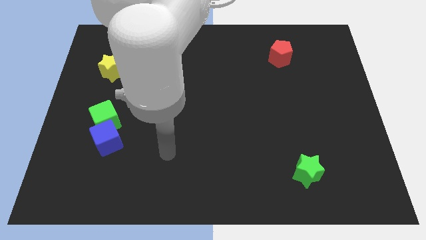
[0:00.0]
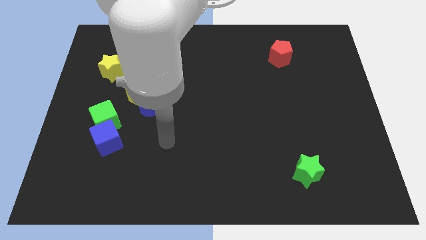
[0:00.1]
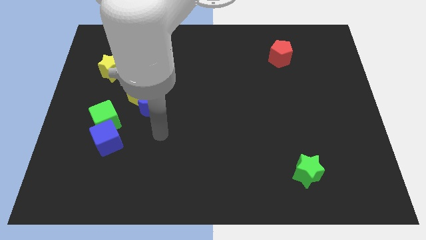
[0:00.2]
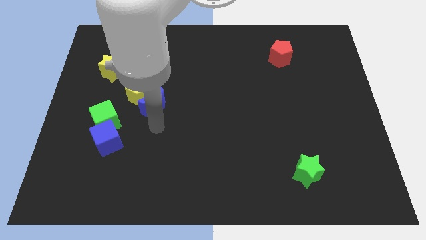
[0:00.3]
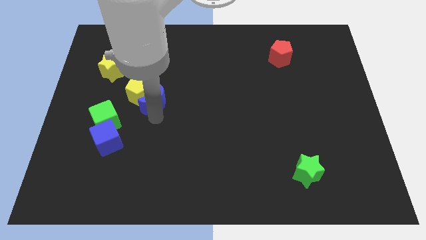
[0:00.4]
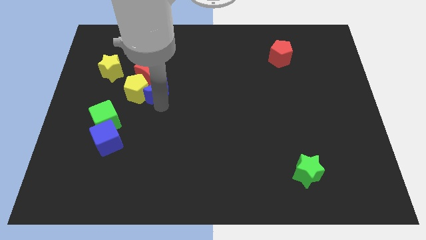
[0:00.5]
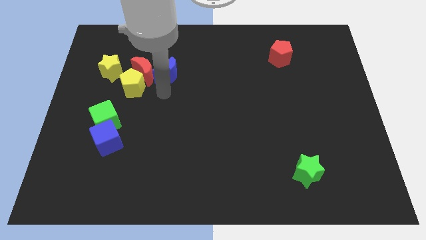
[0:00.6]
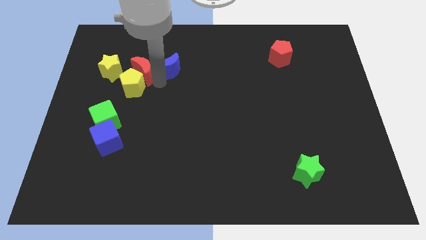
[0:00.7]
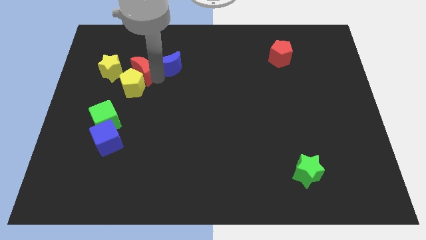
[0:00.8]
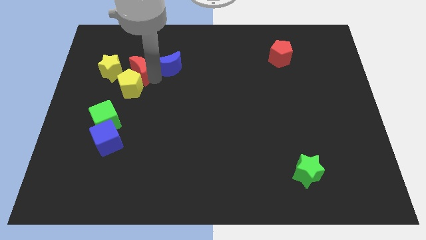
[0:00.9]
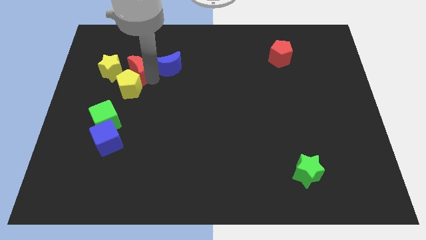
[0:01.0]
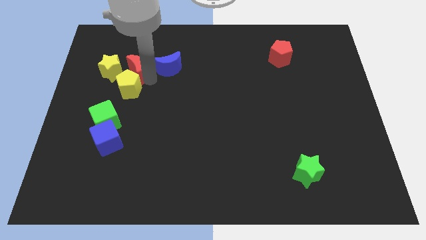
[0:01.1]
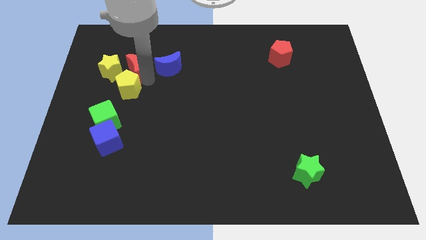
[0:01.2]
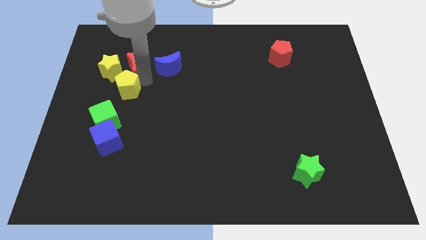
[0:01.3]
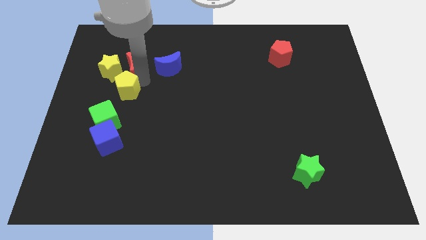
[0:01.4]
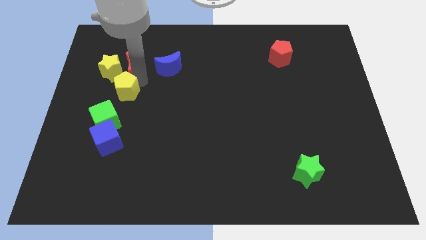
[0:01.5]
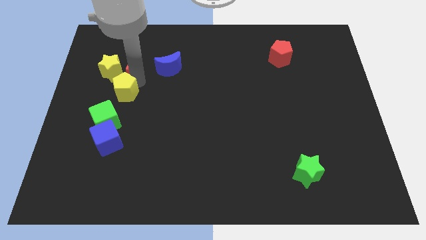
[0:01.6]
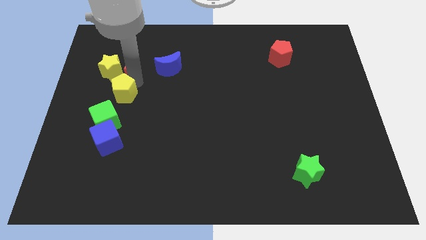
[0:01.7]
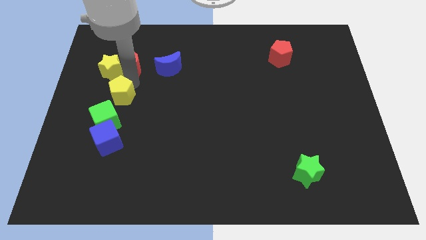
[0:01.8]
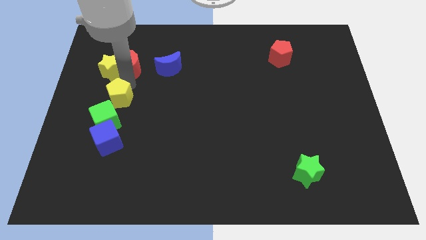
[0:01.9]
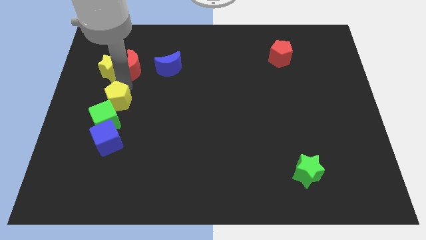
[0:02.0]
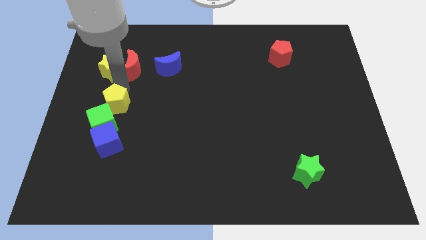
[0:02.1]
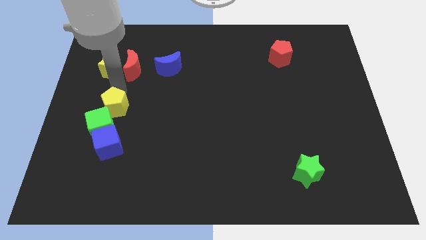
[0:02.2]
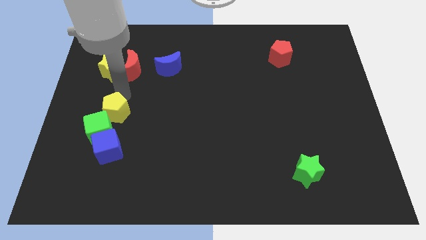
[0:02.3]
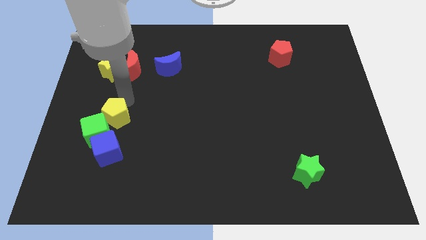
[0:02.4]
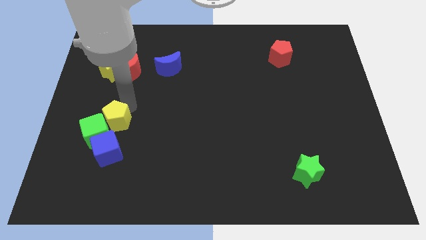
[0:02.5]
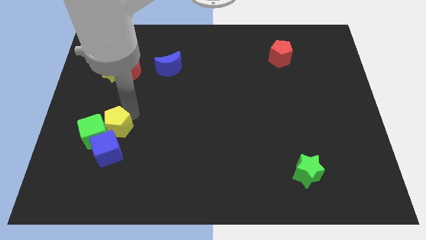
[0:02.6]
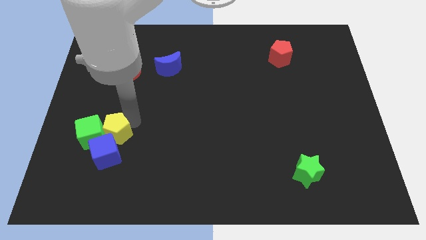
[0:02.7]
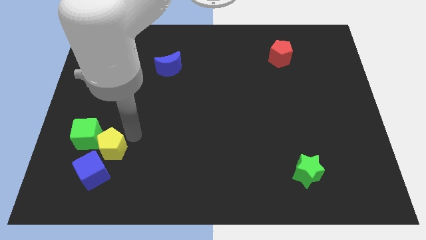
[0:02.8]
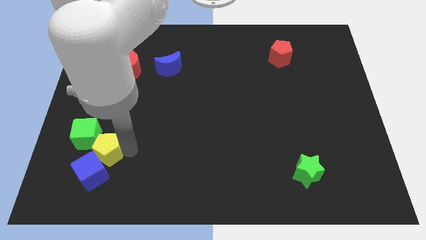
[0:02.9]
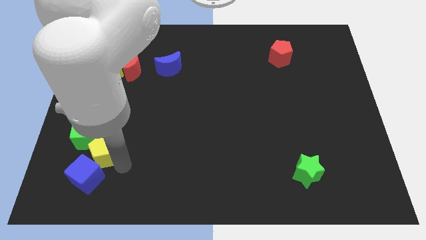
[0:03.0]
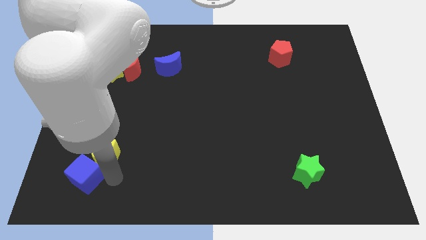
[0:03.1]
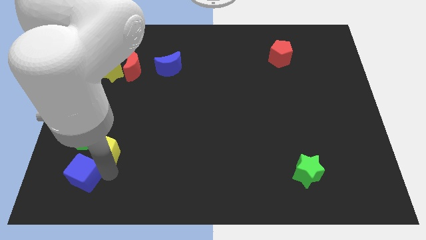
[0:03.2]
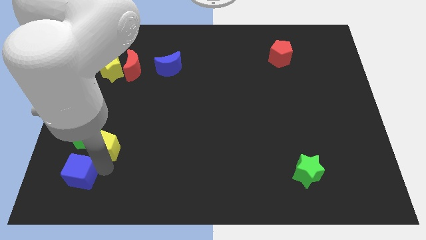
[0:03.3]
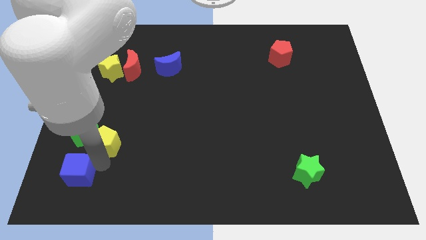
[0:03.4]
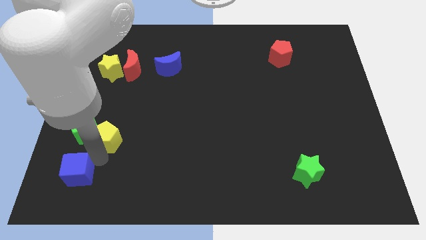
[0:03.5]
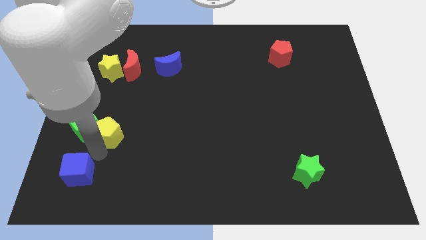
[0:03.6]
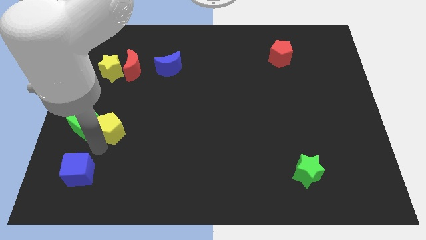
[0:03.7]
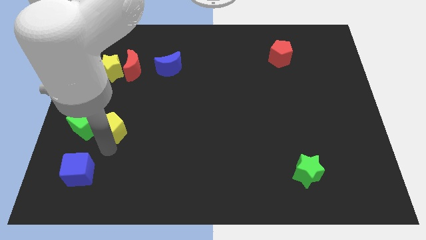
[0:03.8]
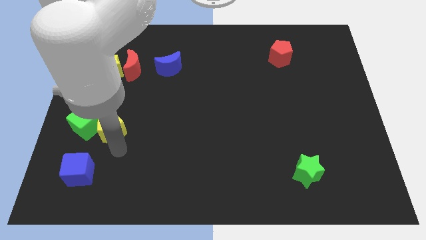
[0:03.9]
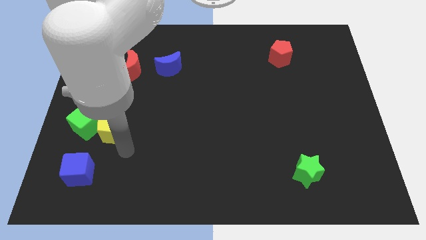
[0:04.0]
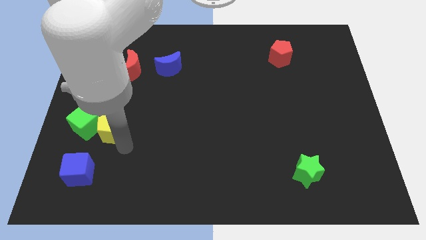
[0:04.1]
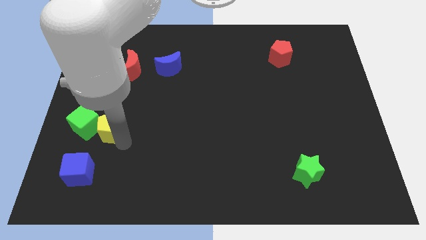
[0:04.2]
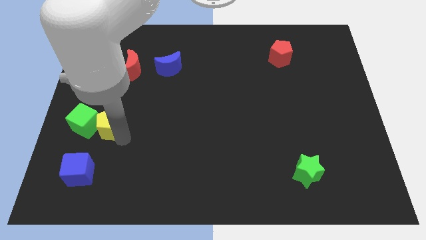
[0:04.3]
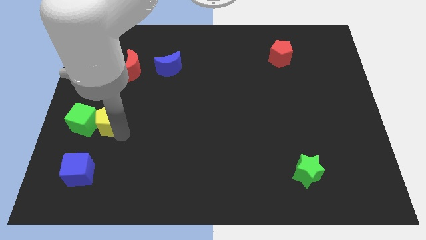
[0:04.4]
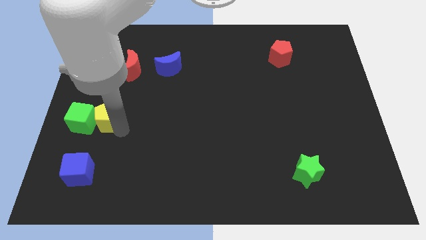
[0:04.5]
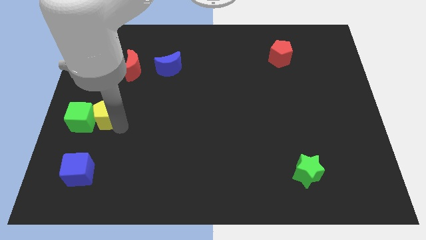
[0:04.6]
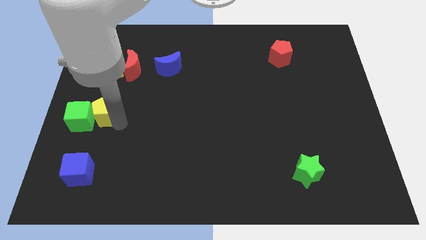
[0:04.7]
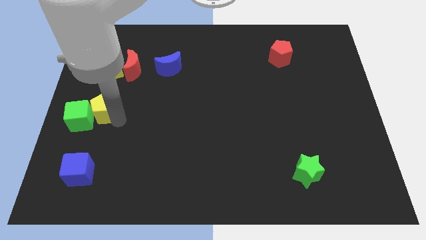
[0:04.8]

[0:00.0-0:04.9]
push the yellow pentagon to the left side of the board

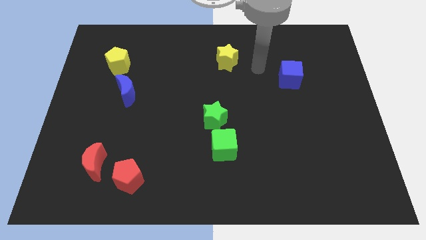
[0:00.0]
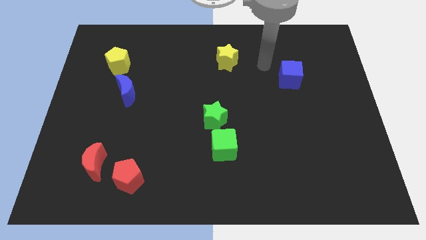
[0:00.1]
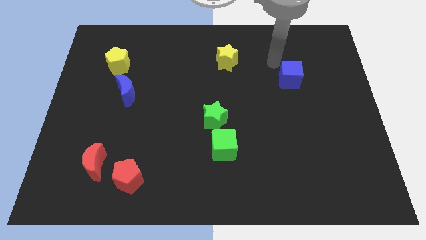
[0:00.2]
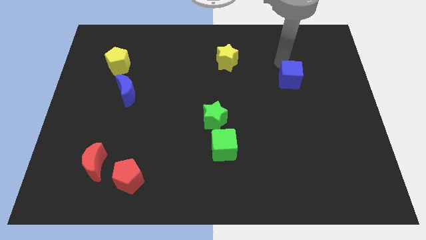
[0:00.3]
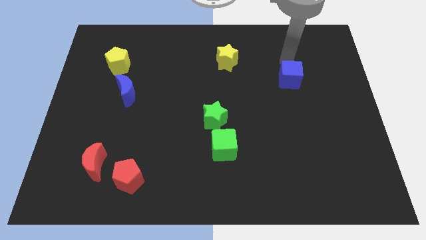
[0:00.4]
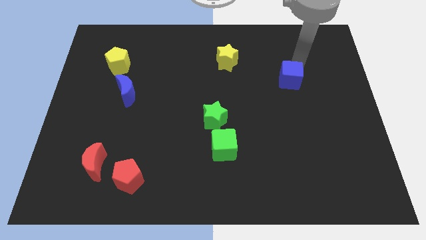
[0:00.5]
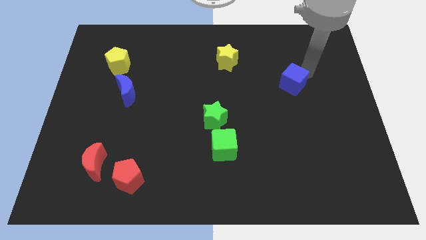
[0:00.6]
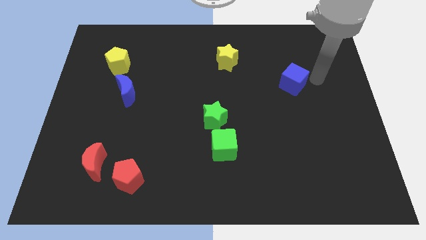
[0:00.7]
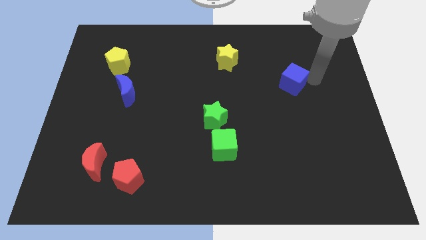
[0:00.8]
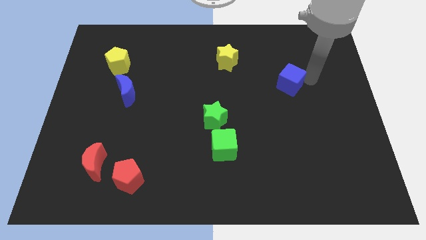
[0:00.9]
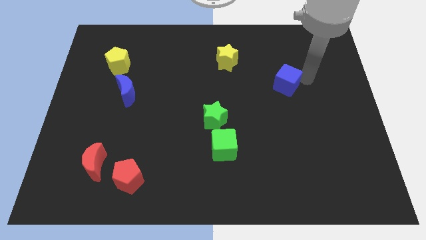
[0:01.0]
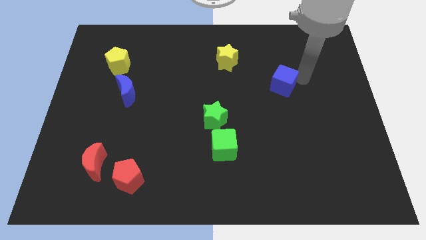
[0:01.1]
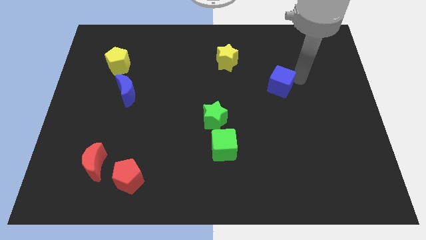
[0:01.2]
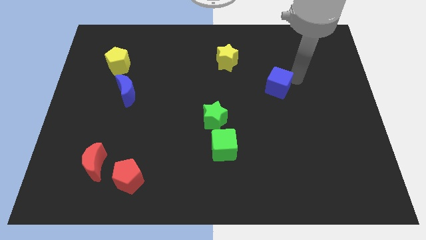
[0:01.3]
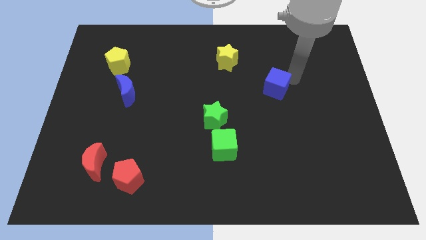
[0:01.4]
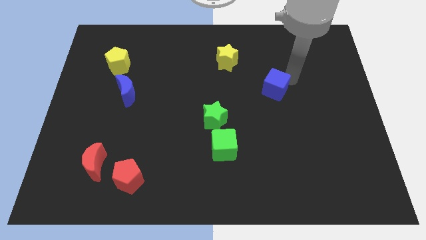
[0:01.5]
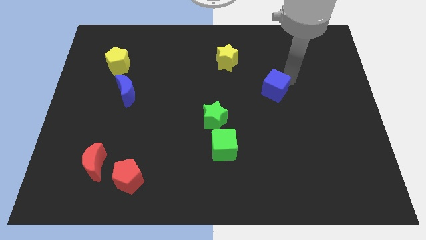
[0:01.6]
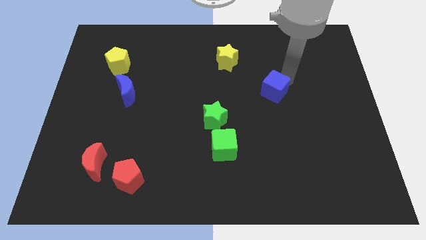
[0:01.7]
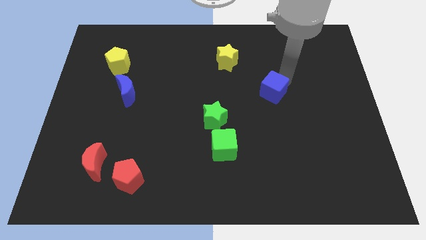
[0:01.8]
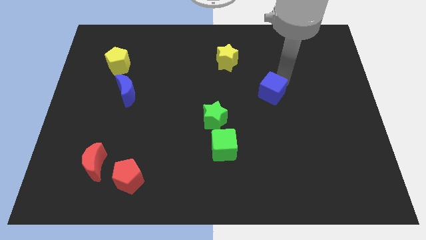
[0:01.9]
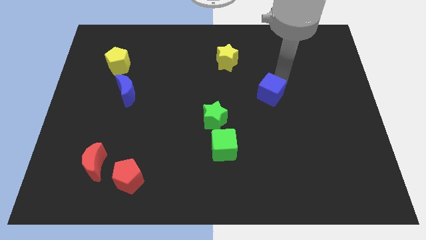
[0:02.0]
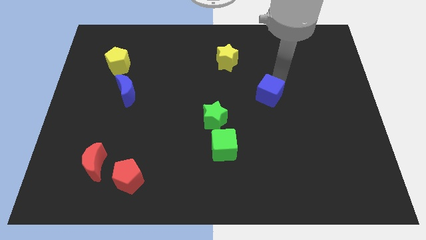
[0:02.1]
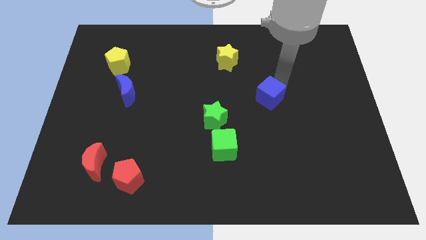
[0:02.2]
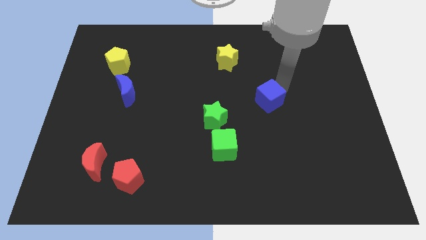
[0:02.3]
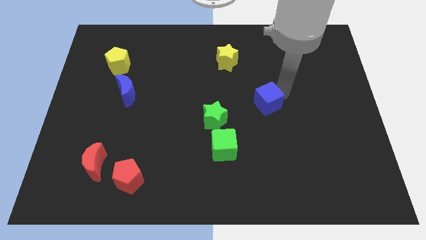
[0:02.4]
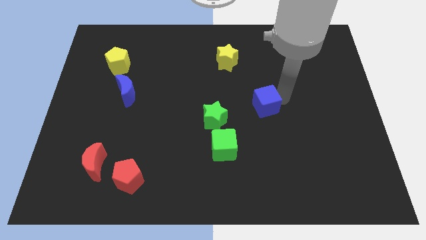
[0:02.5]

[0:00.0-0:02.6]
move the blue cube to the middle
